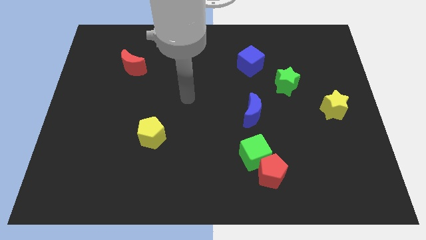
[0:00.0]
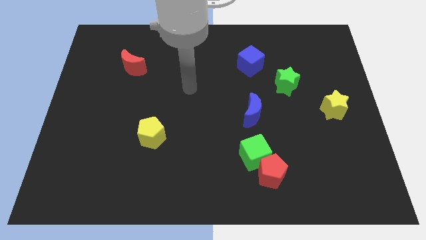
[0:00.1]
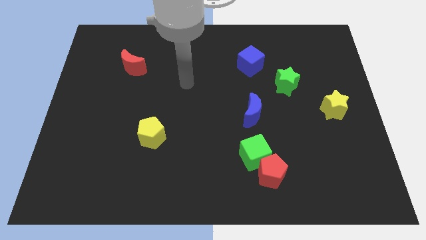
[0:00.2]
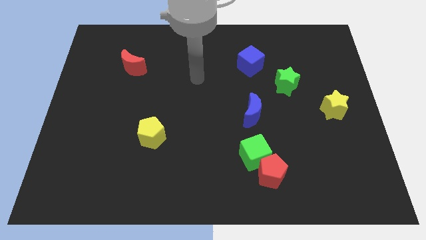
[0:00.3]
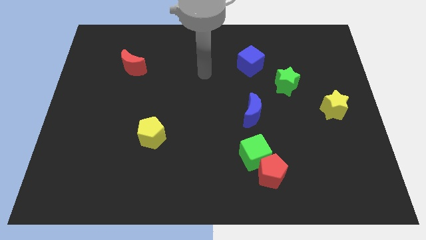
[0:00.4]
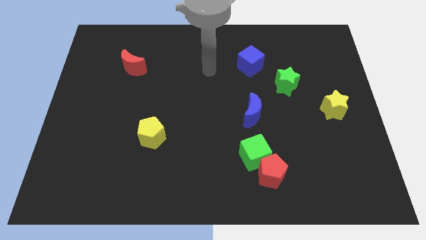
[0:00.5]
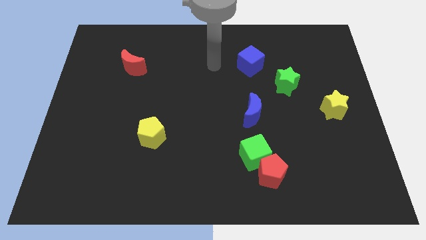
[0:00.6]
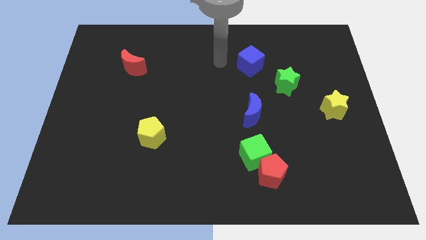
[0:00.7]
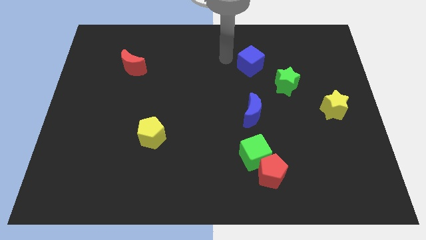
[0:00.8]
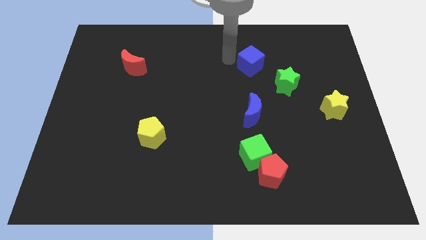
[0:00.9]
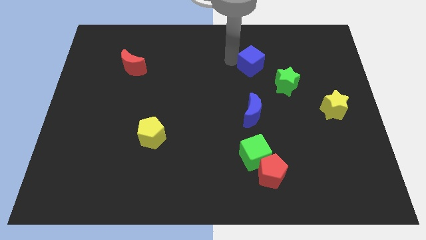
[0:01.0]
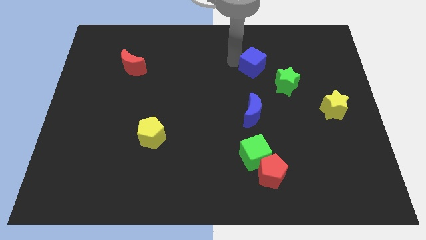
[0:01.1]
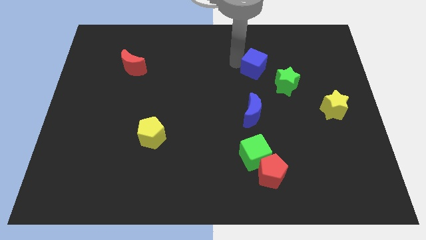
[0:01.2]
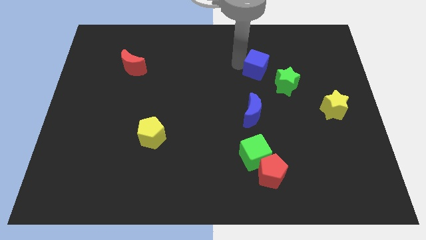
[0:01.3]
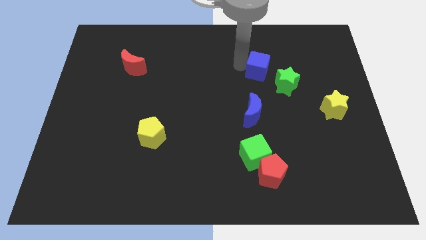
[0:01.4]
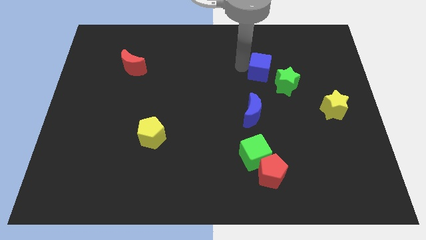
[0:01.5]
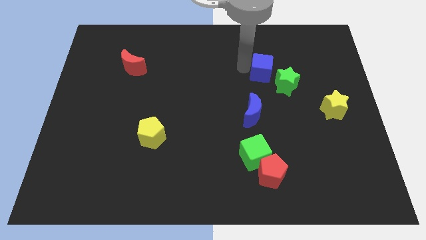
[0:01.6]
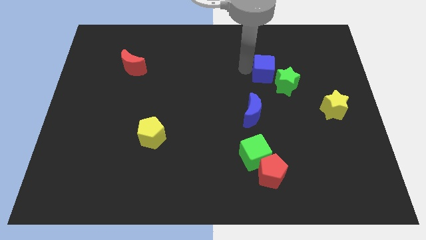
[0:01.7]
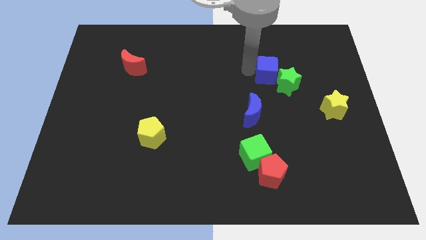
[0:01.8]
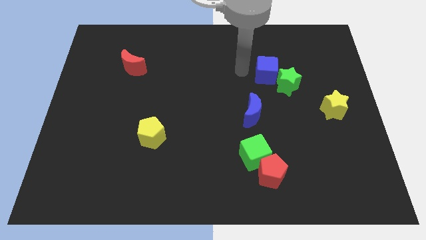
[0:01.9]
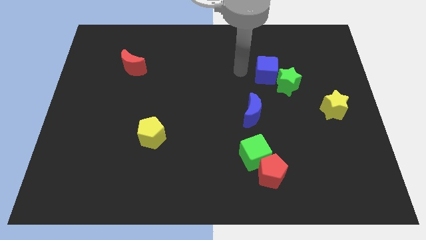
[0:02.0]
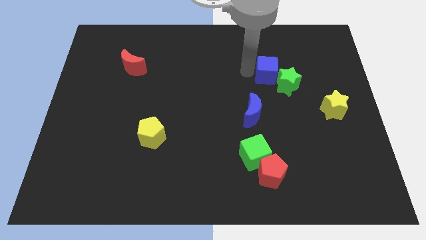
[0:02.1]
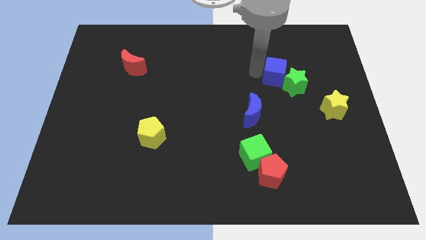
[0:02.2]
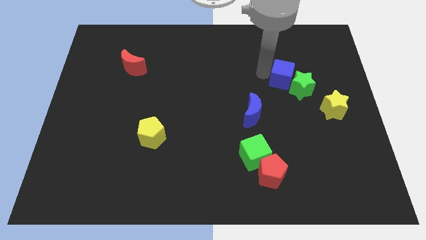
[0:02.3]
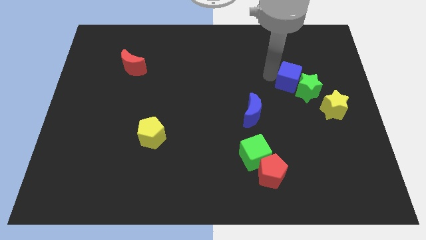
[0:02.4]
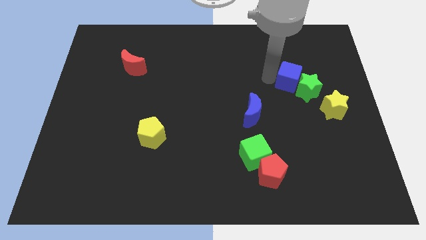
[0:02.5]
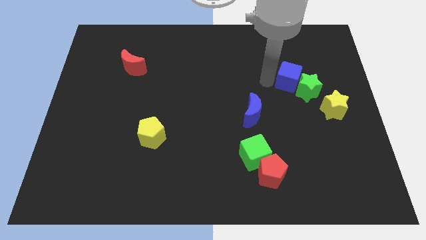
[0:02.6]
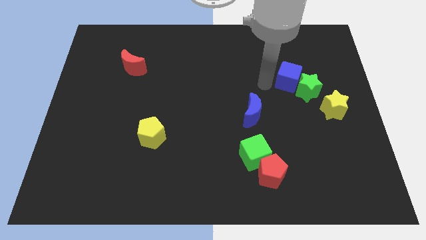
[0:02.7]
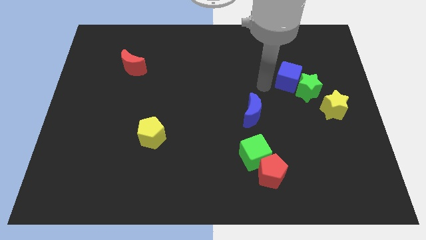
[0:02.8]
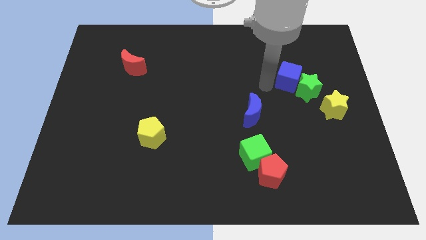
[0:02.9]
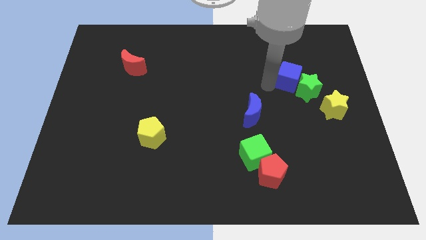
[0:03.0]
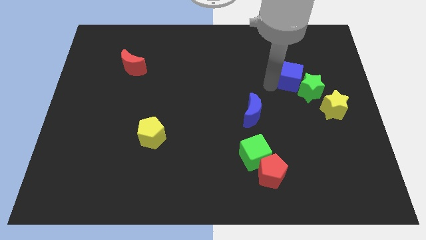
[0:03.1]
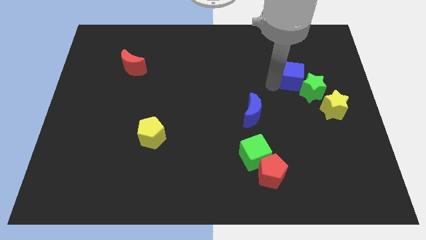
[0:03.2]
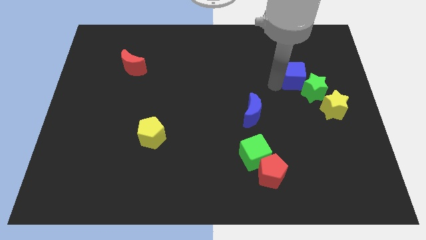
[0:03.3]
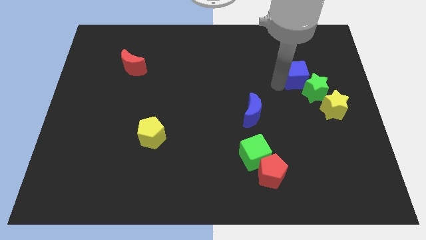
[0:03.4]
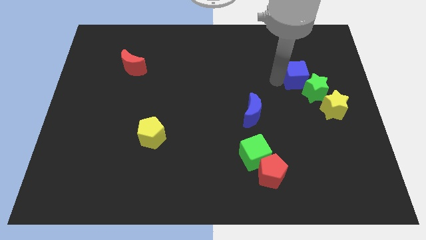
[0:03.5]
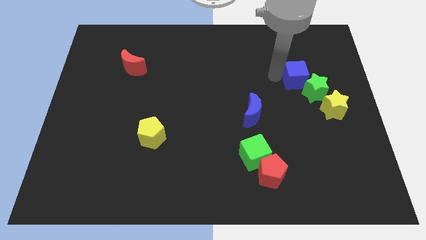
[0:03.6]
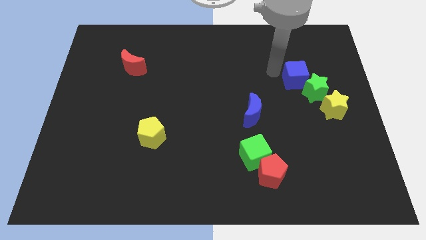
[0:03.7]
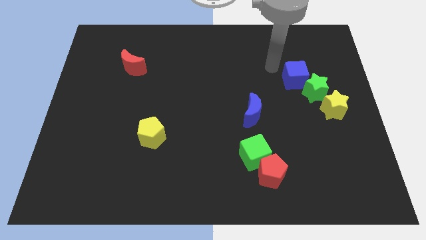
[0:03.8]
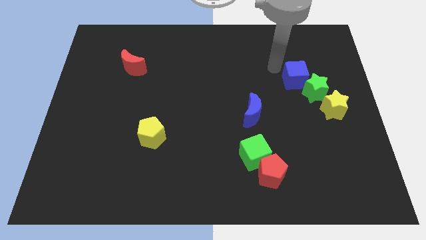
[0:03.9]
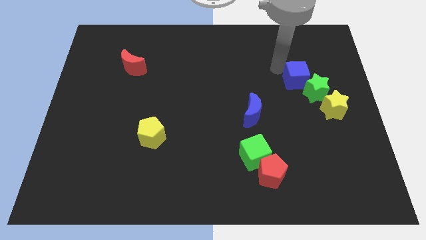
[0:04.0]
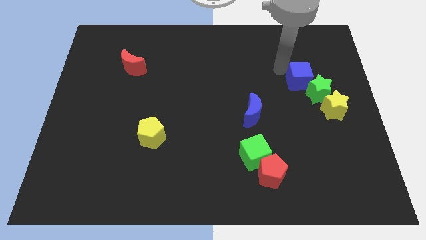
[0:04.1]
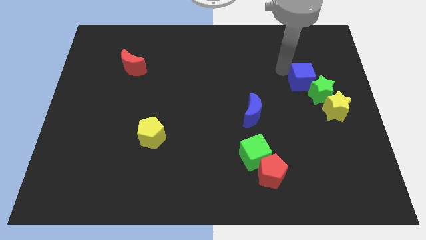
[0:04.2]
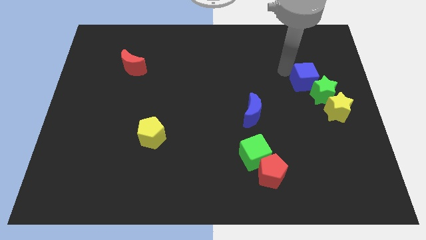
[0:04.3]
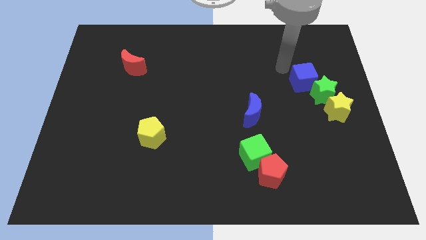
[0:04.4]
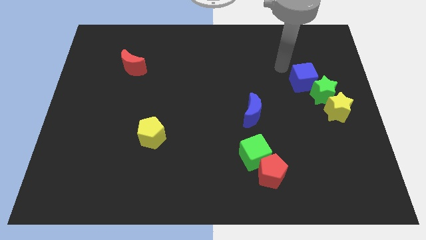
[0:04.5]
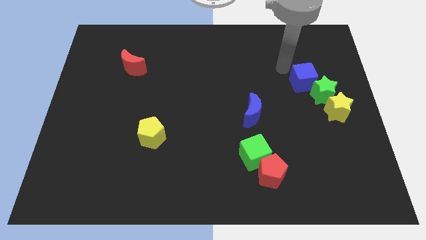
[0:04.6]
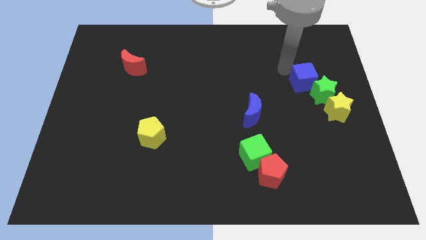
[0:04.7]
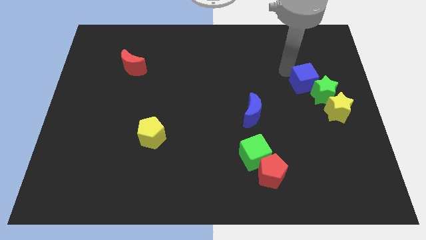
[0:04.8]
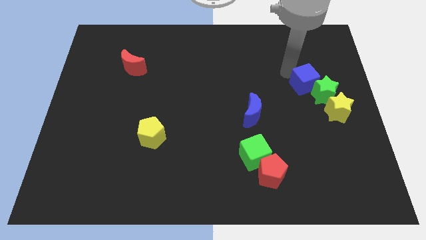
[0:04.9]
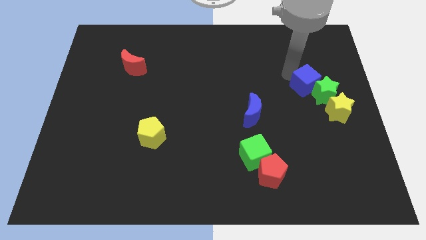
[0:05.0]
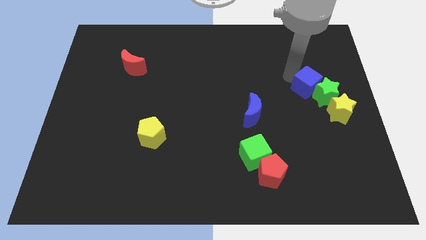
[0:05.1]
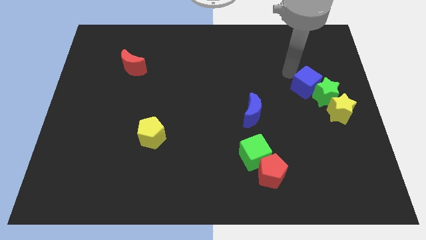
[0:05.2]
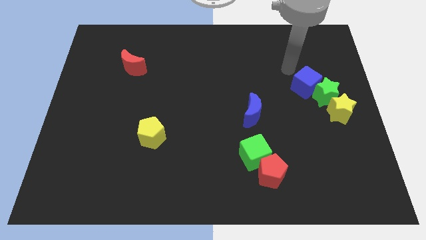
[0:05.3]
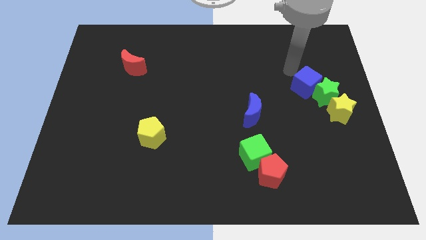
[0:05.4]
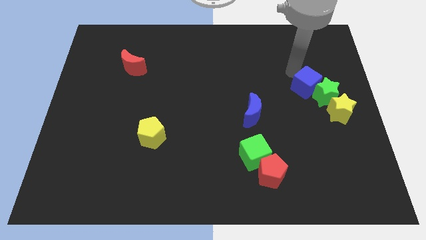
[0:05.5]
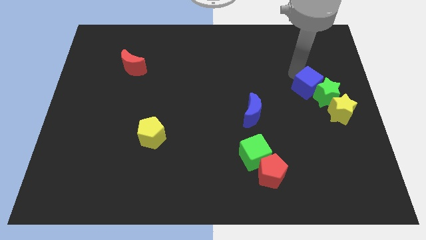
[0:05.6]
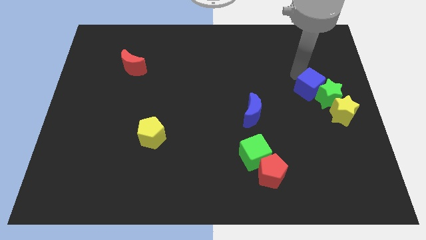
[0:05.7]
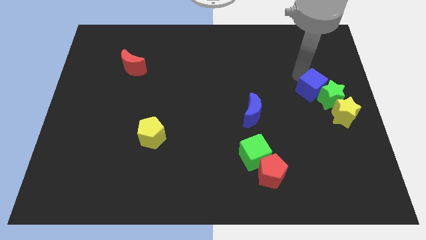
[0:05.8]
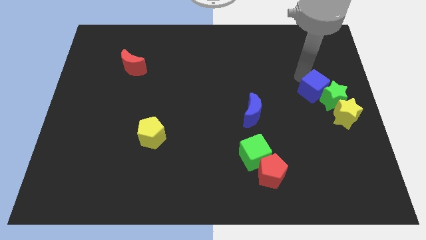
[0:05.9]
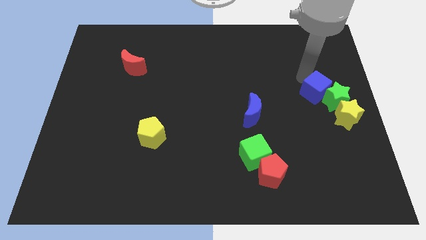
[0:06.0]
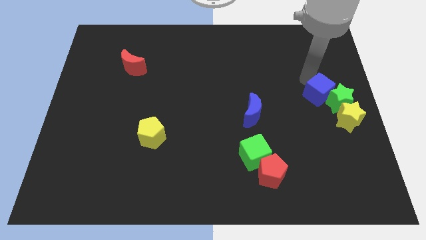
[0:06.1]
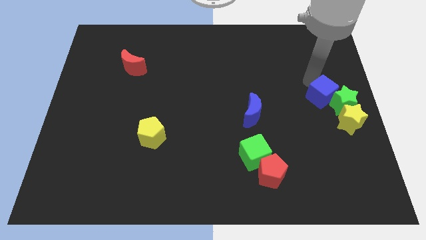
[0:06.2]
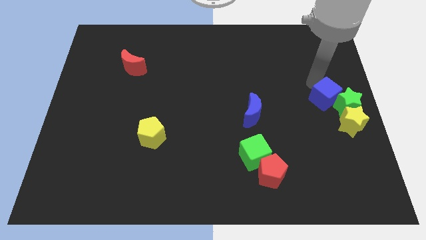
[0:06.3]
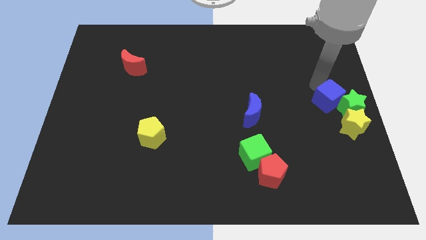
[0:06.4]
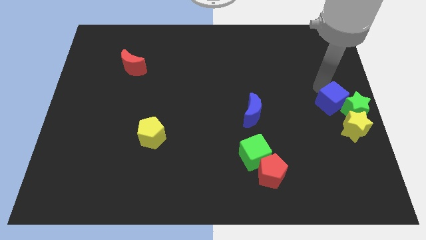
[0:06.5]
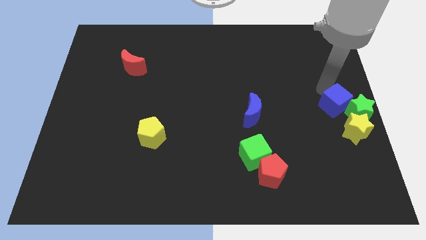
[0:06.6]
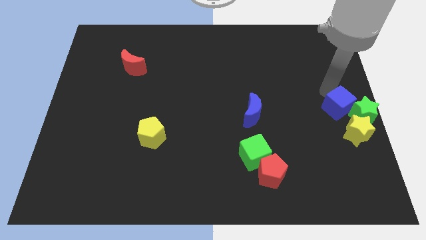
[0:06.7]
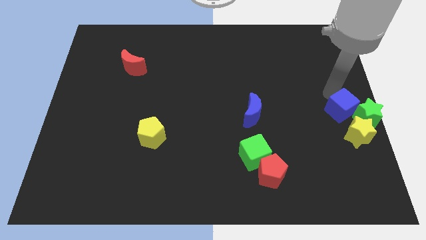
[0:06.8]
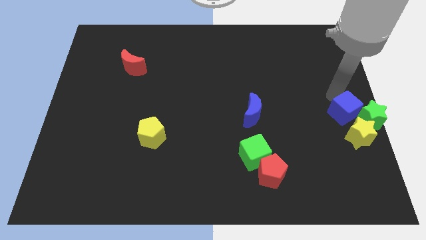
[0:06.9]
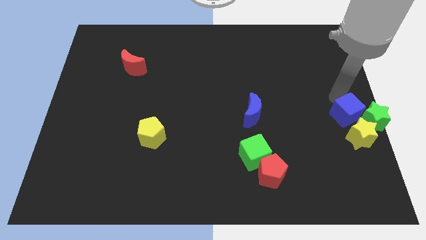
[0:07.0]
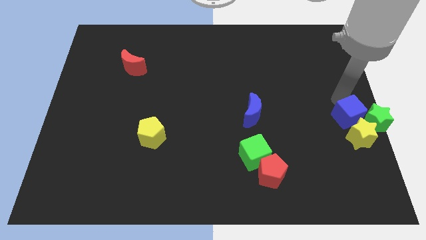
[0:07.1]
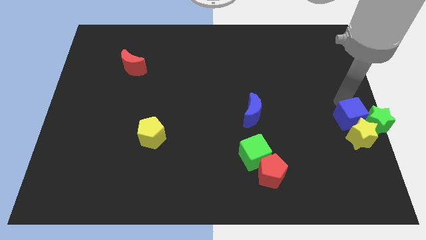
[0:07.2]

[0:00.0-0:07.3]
move the blue cube next to the yellow star
